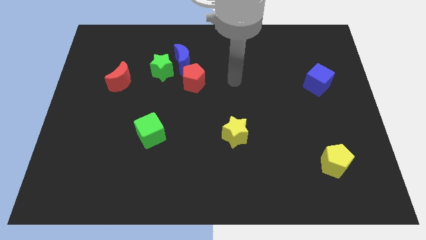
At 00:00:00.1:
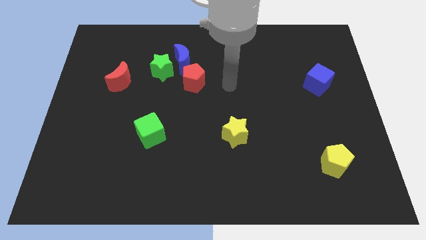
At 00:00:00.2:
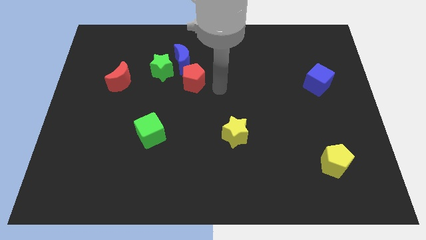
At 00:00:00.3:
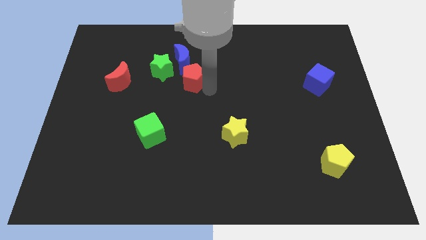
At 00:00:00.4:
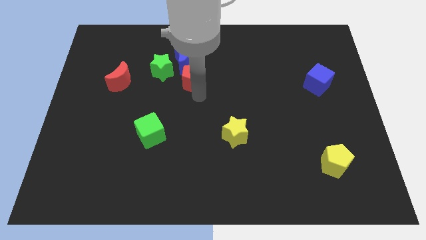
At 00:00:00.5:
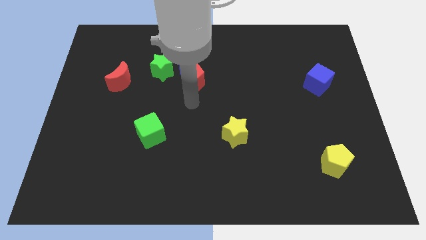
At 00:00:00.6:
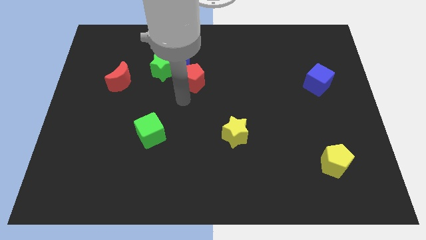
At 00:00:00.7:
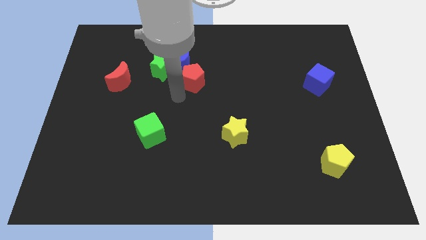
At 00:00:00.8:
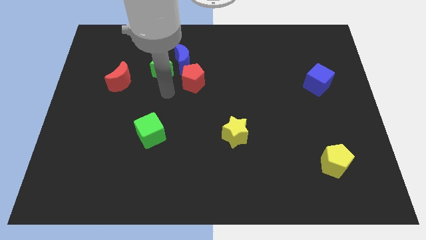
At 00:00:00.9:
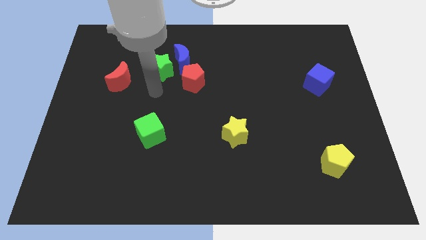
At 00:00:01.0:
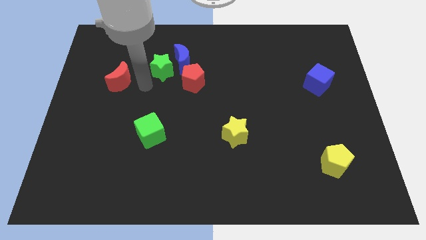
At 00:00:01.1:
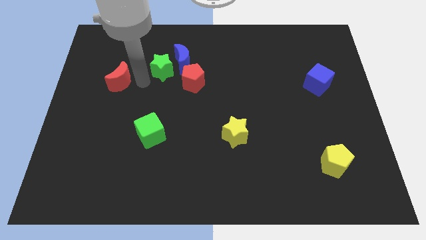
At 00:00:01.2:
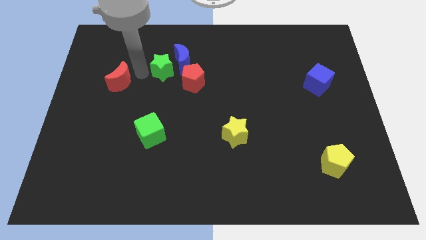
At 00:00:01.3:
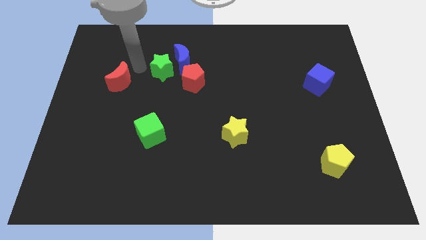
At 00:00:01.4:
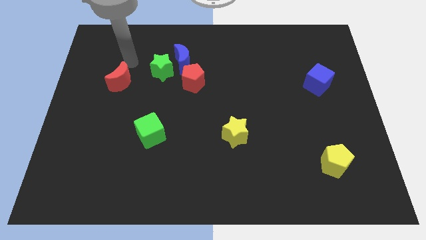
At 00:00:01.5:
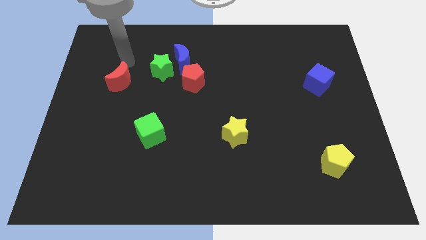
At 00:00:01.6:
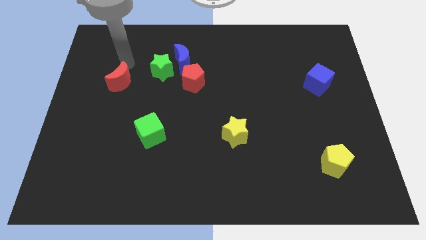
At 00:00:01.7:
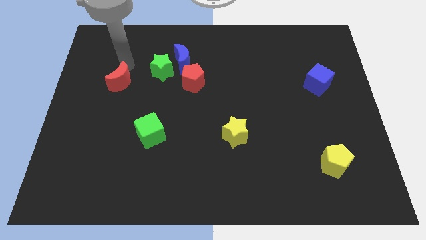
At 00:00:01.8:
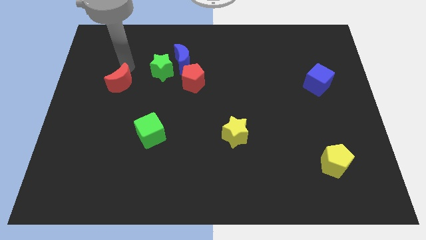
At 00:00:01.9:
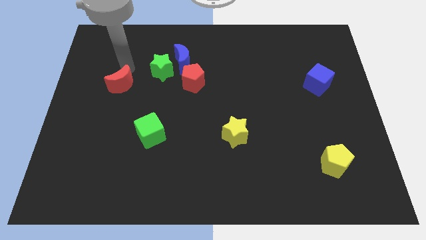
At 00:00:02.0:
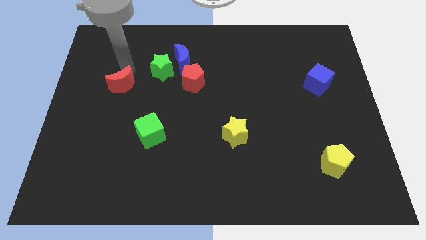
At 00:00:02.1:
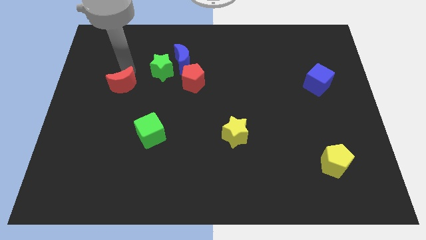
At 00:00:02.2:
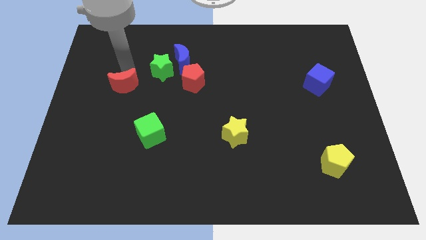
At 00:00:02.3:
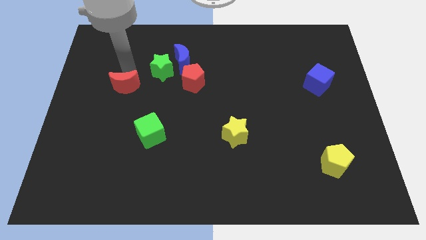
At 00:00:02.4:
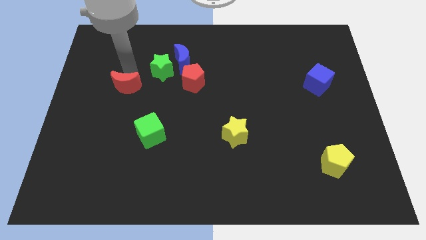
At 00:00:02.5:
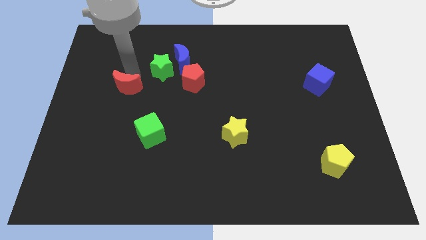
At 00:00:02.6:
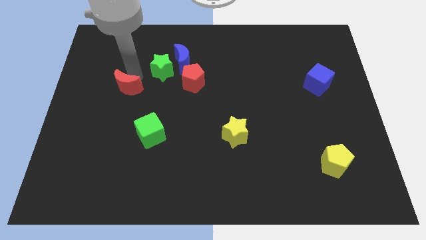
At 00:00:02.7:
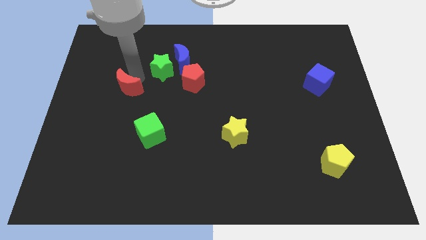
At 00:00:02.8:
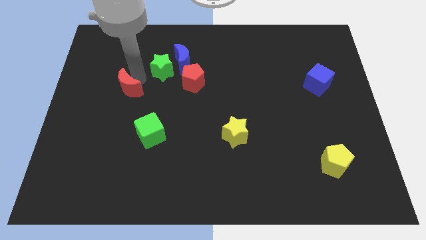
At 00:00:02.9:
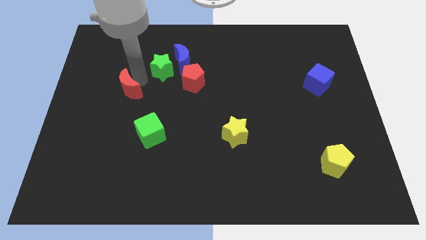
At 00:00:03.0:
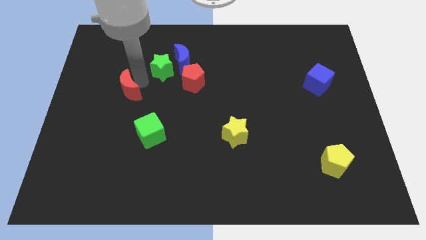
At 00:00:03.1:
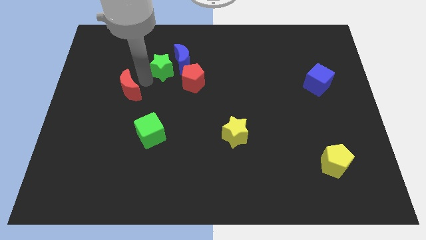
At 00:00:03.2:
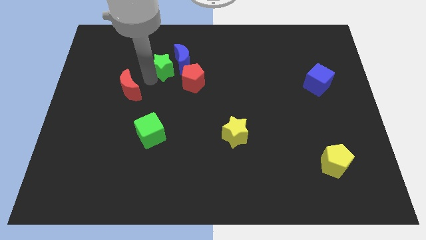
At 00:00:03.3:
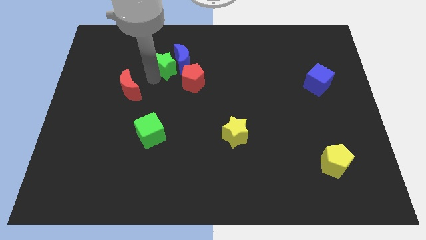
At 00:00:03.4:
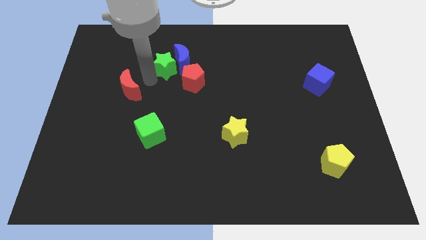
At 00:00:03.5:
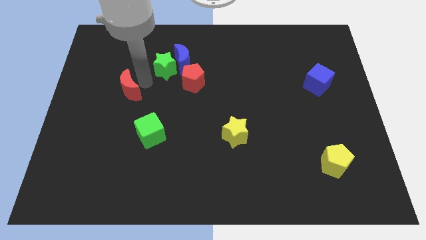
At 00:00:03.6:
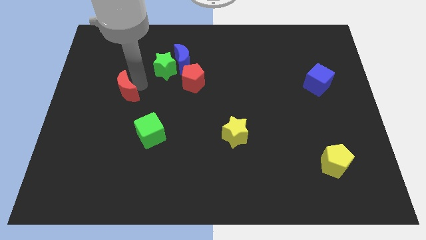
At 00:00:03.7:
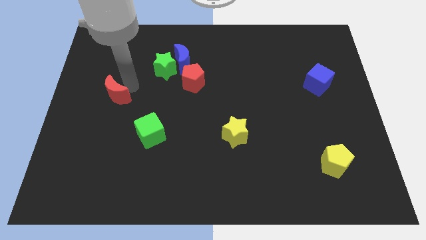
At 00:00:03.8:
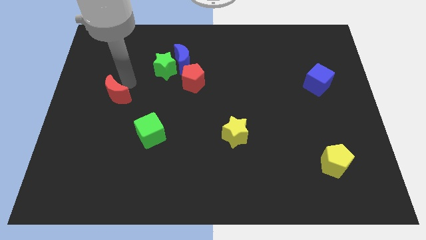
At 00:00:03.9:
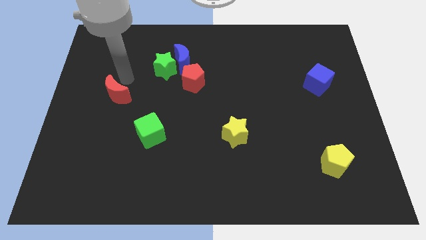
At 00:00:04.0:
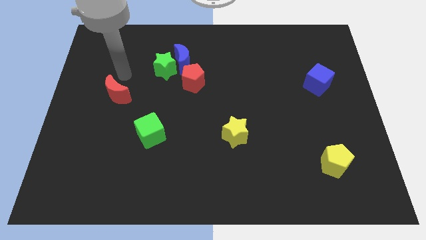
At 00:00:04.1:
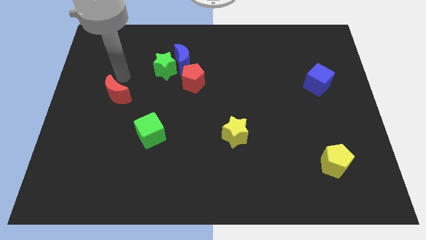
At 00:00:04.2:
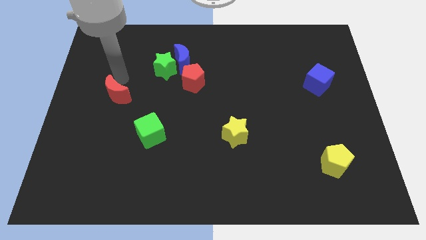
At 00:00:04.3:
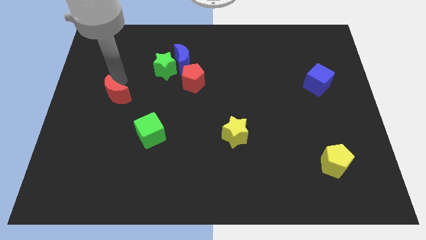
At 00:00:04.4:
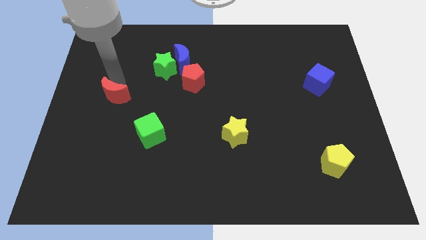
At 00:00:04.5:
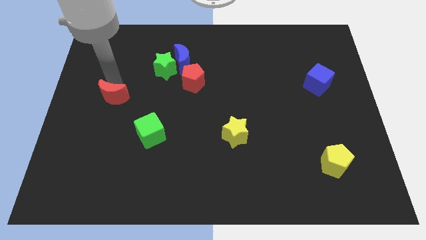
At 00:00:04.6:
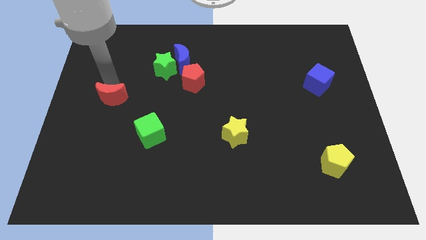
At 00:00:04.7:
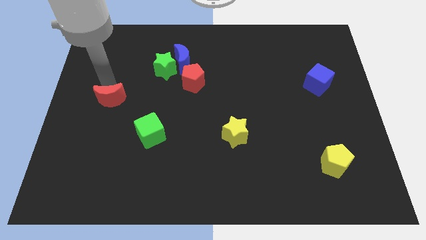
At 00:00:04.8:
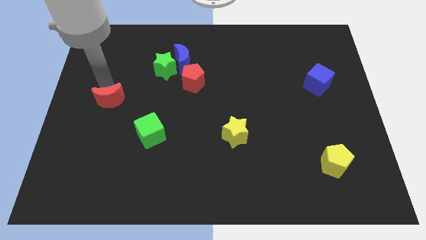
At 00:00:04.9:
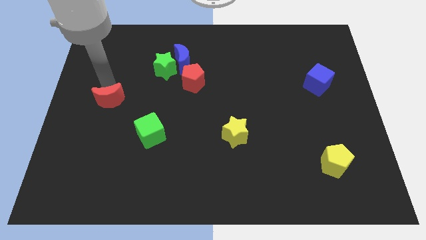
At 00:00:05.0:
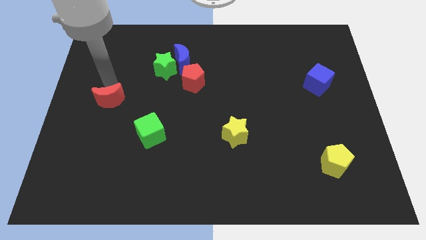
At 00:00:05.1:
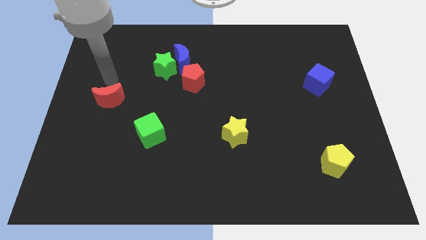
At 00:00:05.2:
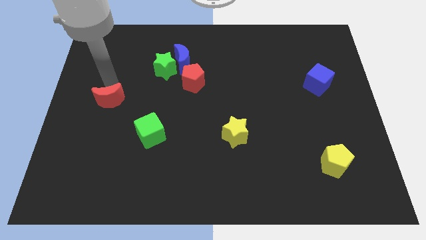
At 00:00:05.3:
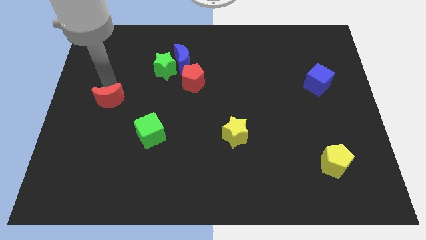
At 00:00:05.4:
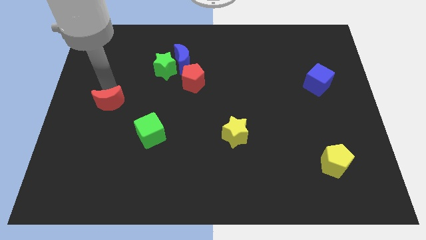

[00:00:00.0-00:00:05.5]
push the red moon a little bit downwards

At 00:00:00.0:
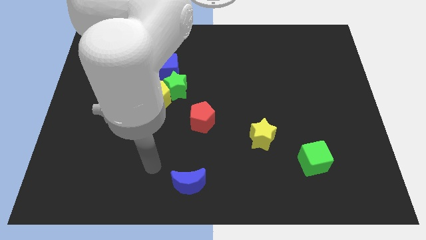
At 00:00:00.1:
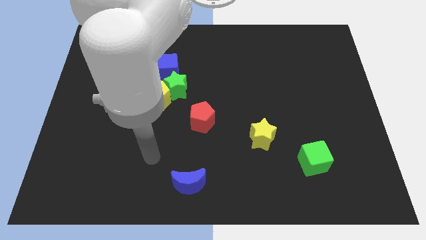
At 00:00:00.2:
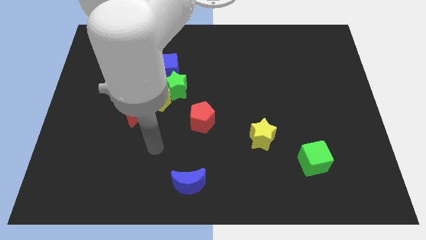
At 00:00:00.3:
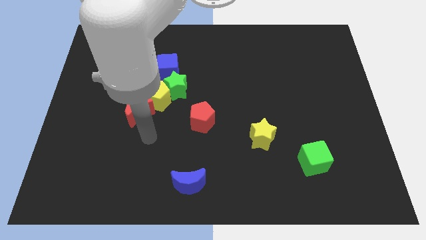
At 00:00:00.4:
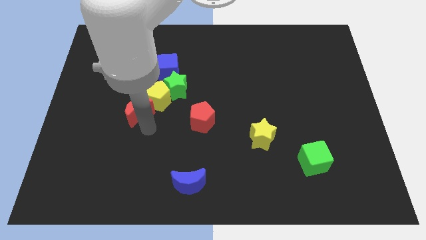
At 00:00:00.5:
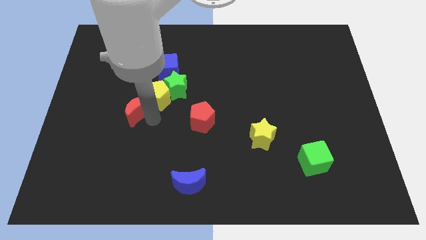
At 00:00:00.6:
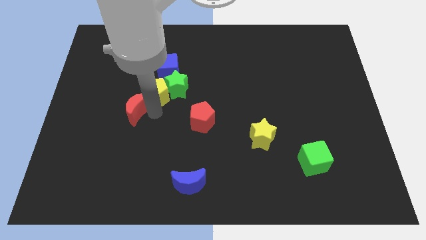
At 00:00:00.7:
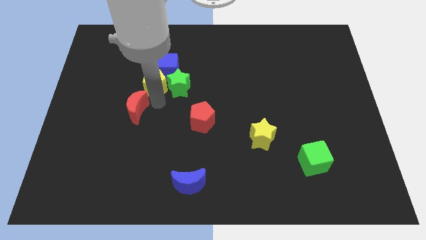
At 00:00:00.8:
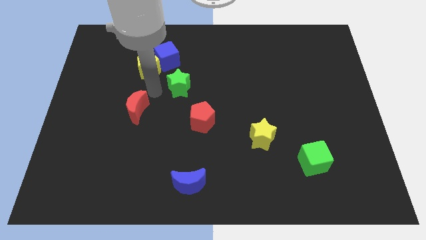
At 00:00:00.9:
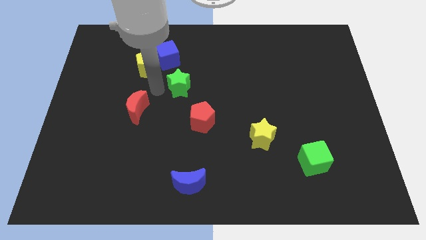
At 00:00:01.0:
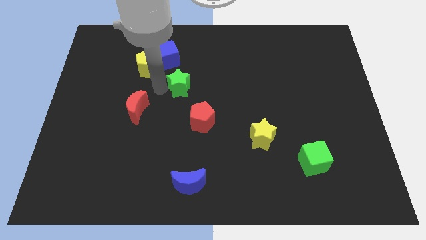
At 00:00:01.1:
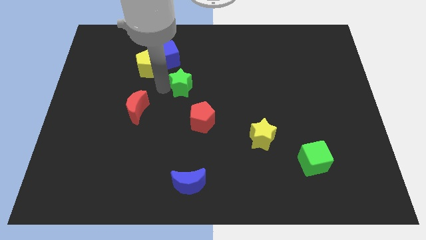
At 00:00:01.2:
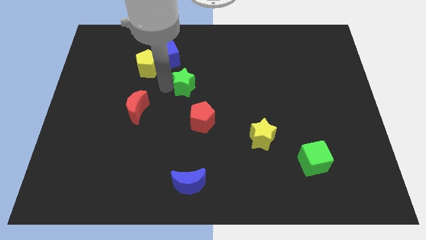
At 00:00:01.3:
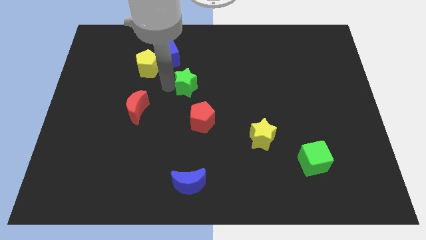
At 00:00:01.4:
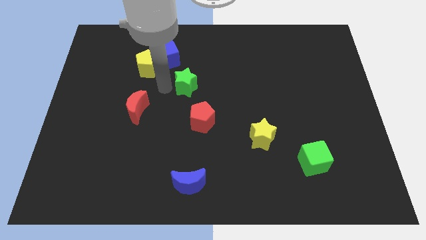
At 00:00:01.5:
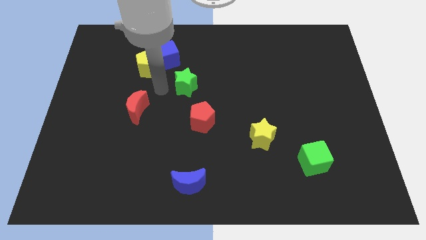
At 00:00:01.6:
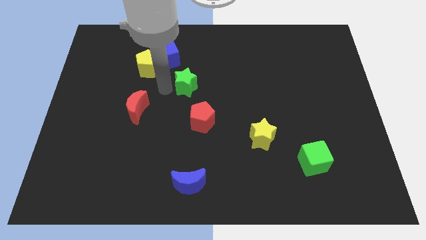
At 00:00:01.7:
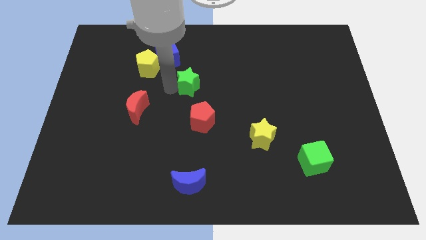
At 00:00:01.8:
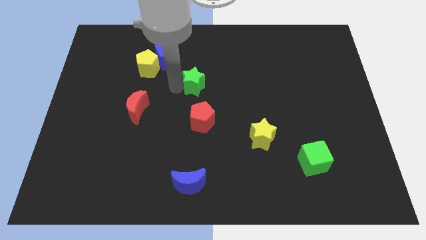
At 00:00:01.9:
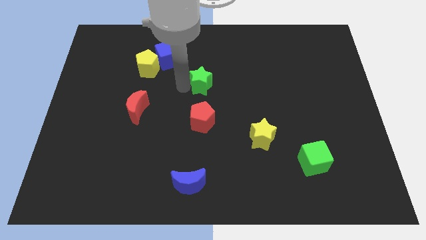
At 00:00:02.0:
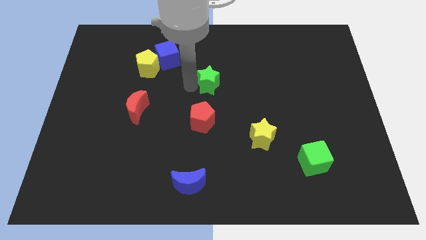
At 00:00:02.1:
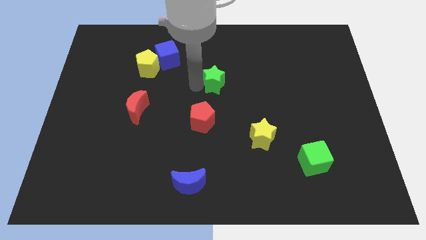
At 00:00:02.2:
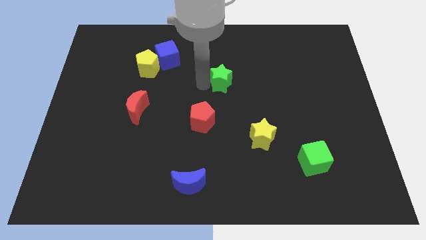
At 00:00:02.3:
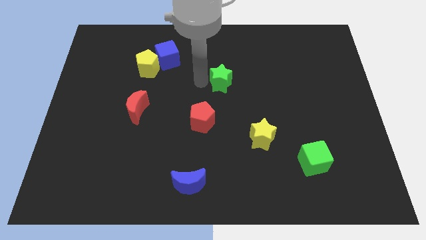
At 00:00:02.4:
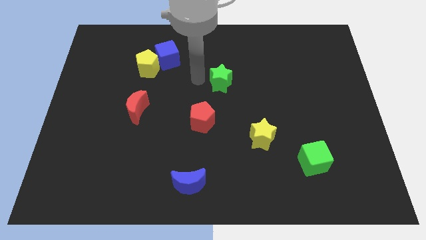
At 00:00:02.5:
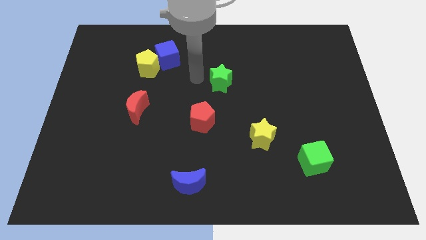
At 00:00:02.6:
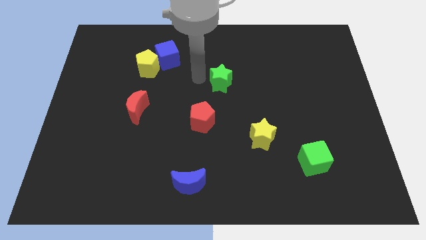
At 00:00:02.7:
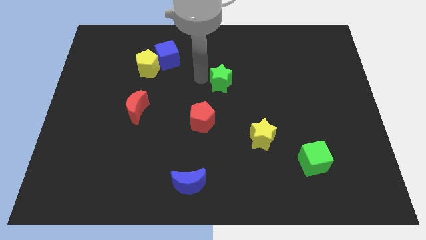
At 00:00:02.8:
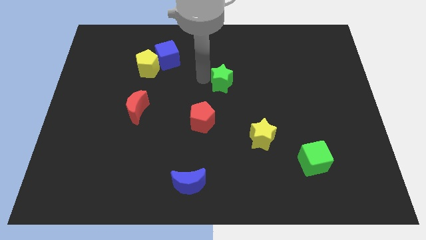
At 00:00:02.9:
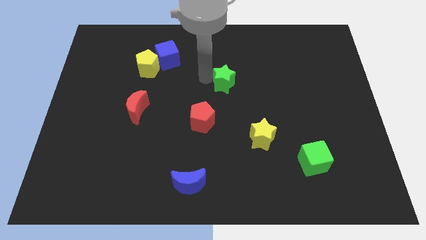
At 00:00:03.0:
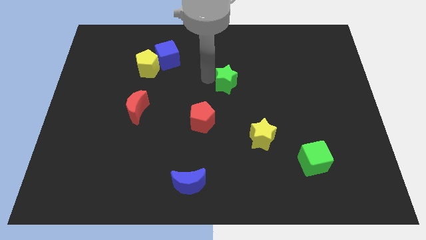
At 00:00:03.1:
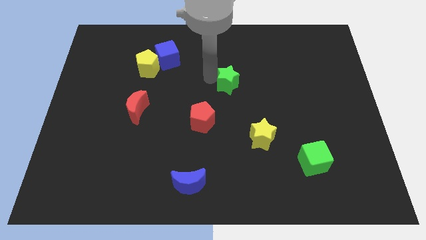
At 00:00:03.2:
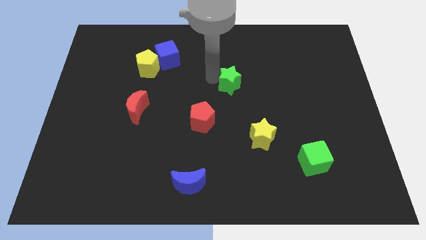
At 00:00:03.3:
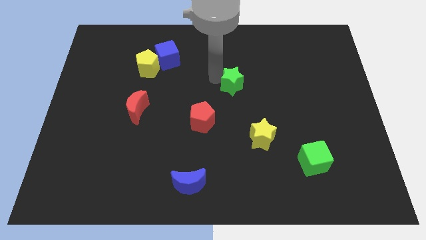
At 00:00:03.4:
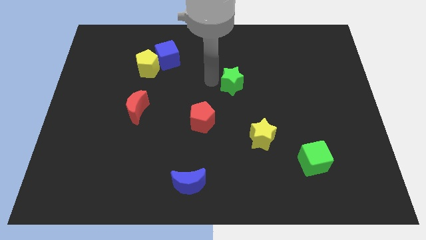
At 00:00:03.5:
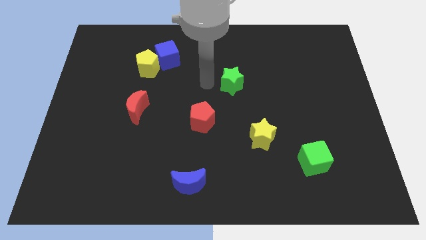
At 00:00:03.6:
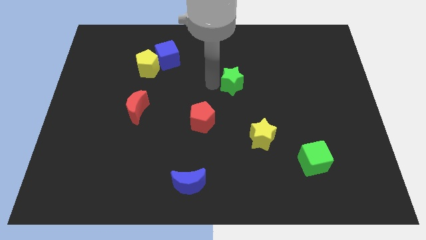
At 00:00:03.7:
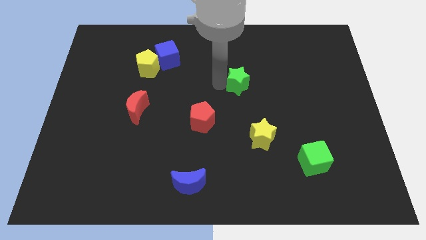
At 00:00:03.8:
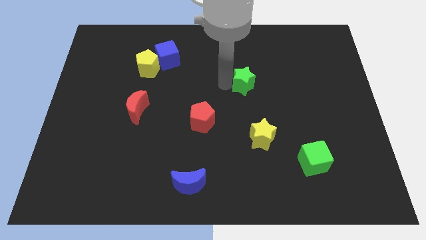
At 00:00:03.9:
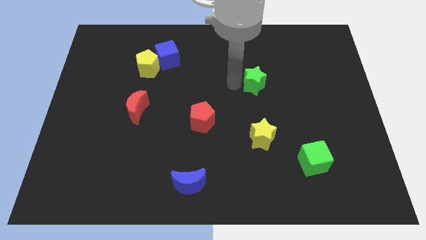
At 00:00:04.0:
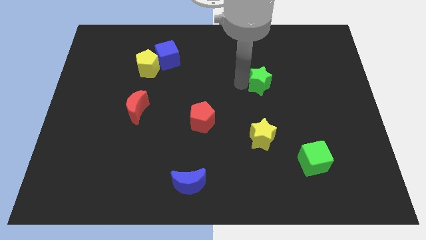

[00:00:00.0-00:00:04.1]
push the green star to the right
